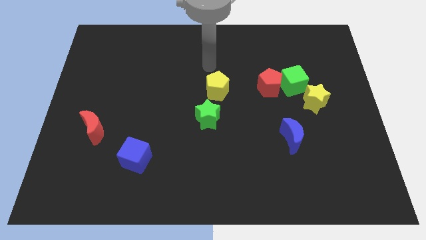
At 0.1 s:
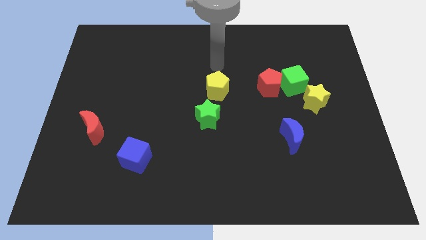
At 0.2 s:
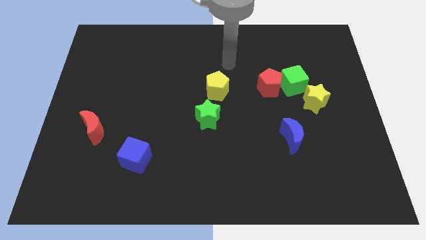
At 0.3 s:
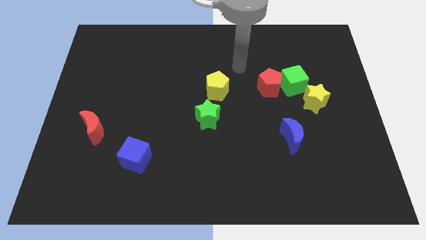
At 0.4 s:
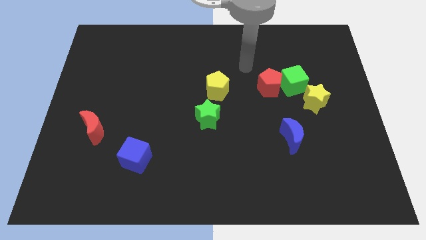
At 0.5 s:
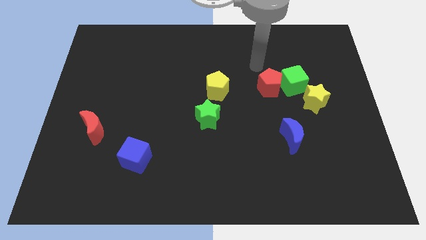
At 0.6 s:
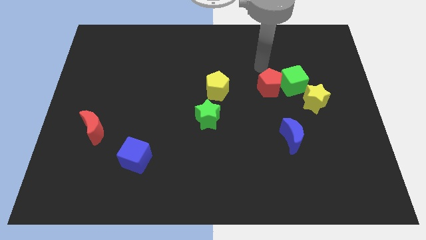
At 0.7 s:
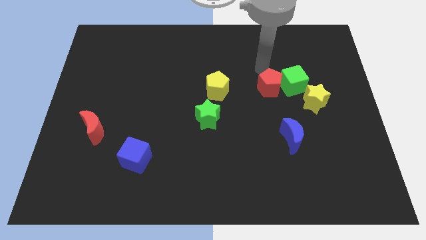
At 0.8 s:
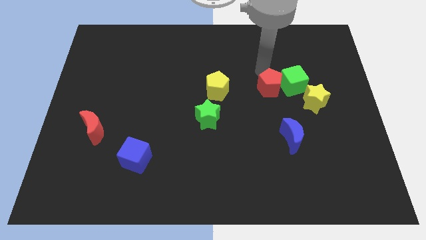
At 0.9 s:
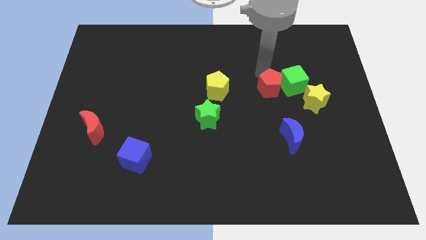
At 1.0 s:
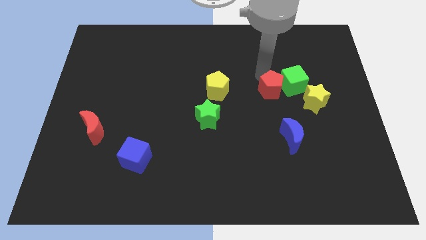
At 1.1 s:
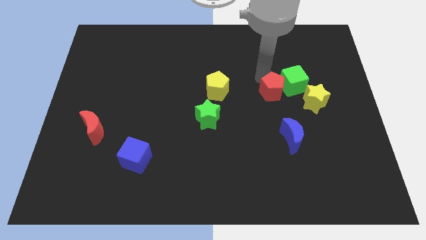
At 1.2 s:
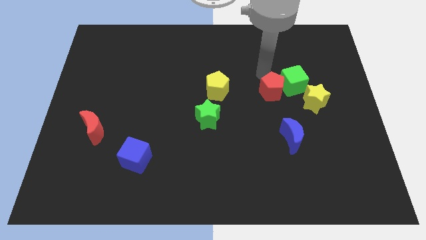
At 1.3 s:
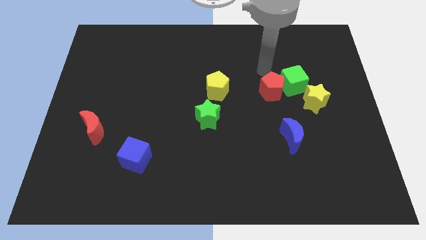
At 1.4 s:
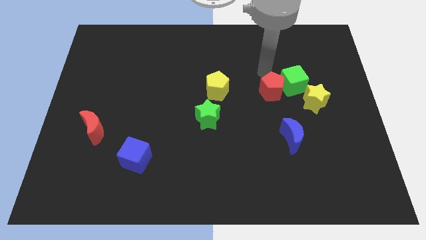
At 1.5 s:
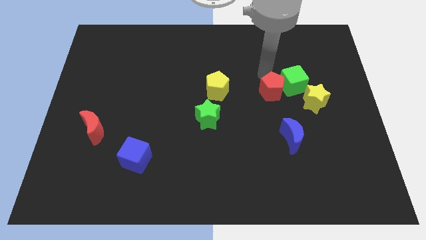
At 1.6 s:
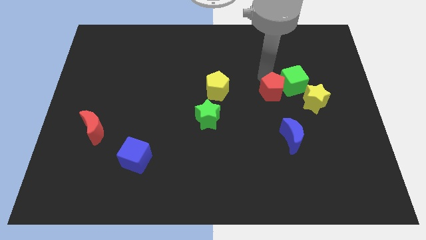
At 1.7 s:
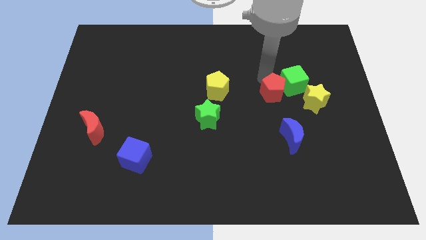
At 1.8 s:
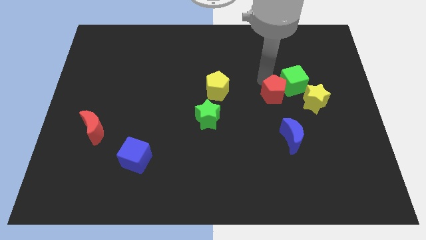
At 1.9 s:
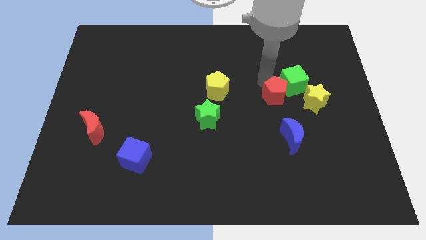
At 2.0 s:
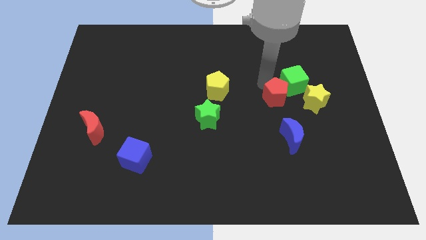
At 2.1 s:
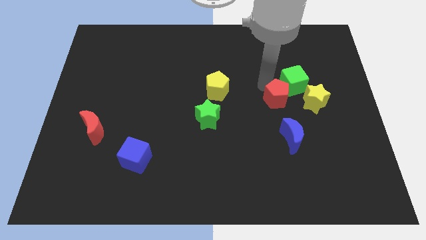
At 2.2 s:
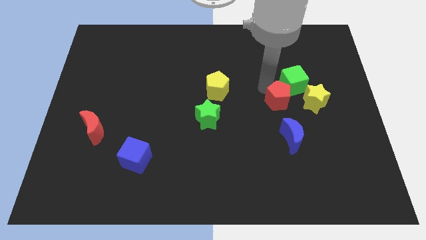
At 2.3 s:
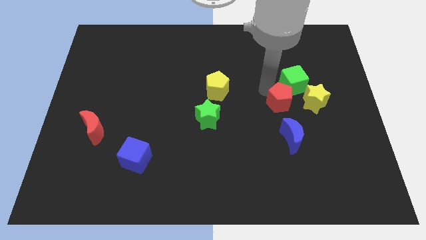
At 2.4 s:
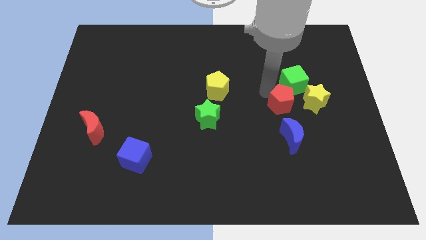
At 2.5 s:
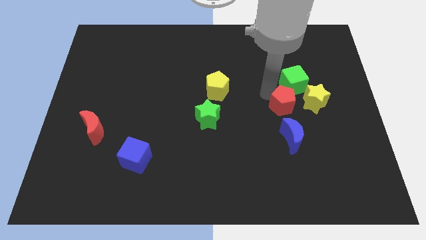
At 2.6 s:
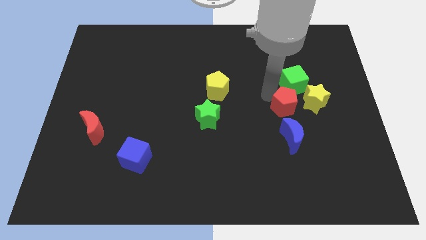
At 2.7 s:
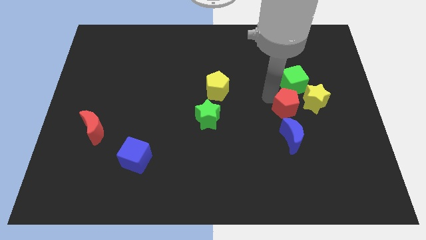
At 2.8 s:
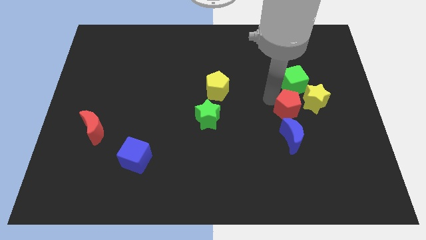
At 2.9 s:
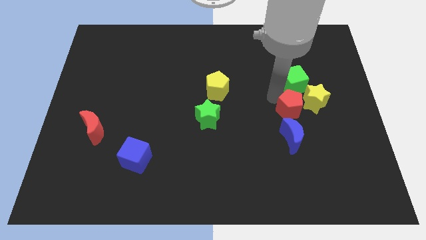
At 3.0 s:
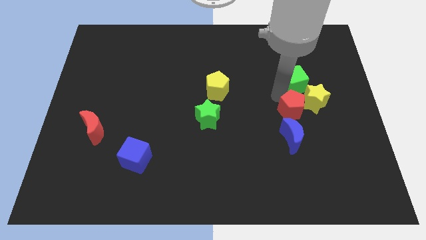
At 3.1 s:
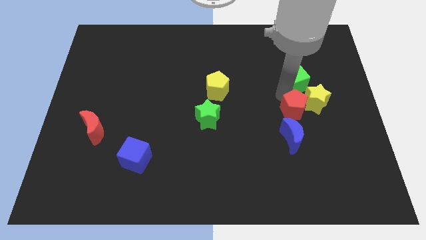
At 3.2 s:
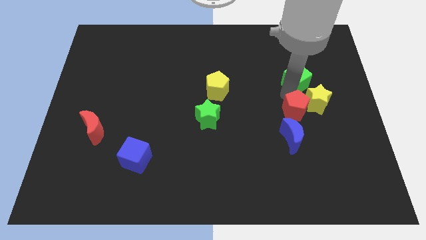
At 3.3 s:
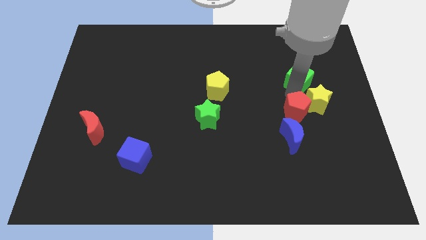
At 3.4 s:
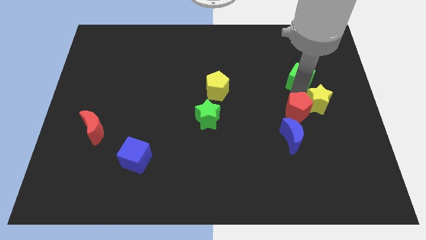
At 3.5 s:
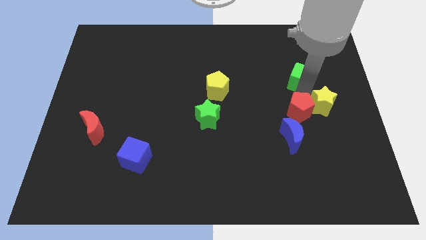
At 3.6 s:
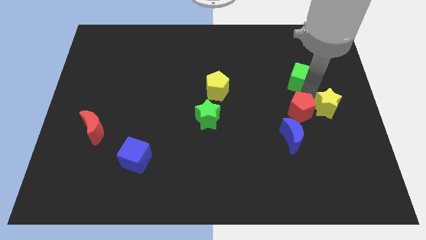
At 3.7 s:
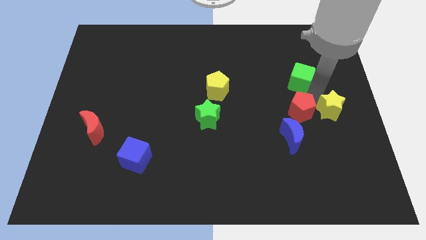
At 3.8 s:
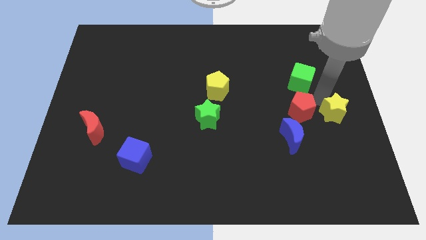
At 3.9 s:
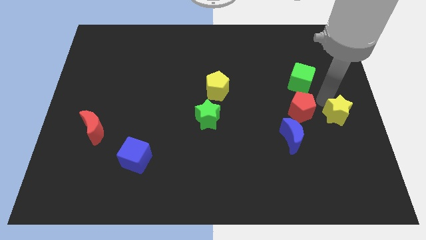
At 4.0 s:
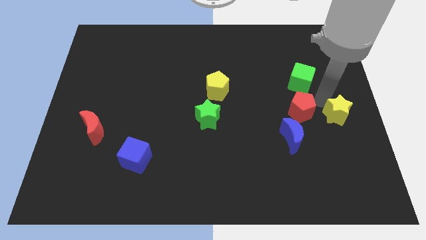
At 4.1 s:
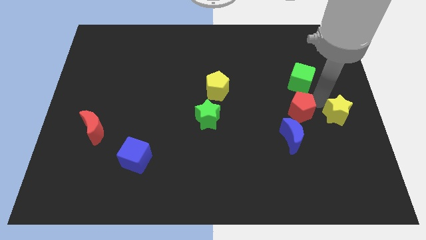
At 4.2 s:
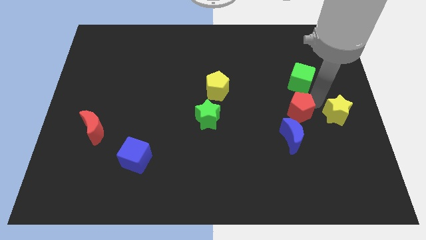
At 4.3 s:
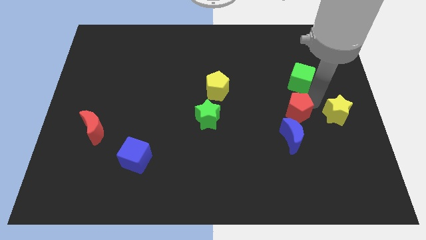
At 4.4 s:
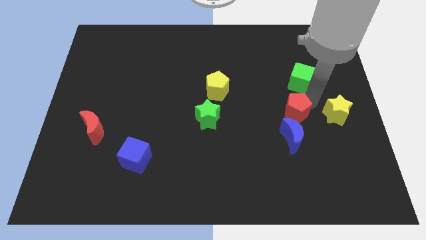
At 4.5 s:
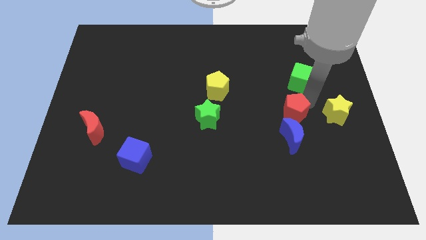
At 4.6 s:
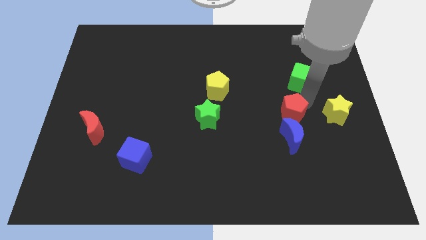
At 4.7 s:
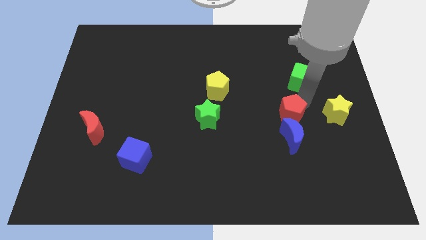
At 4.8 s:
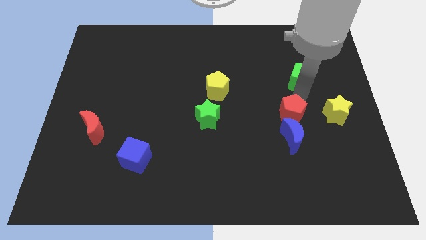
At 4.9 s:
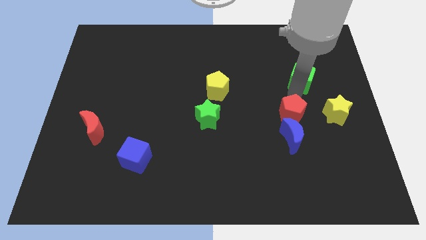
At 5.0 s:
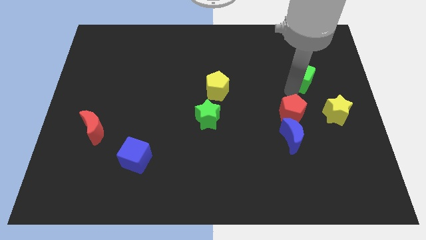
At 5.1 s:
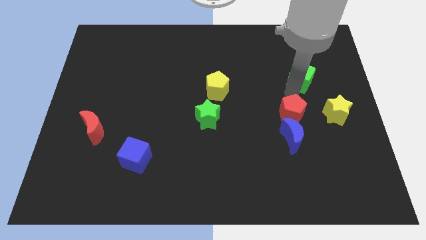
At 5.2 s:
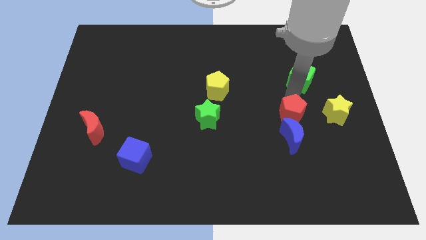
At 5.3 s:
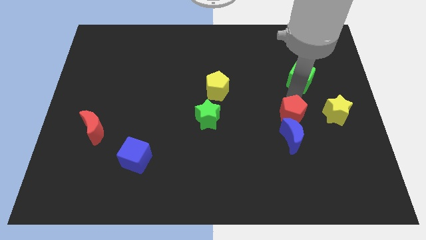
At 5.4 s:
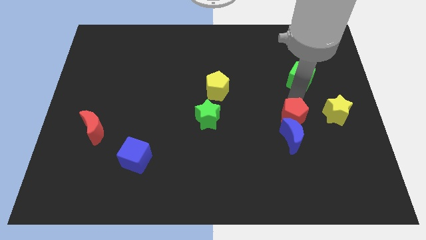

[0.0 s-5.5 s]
put the red pentagon close to the blue moon
